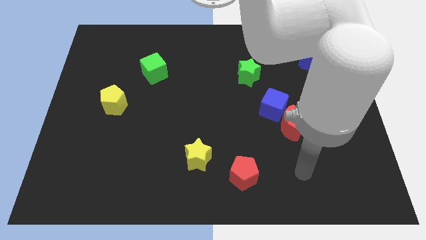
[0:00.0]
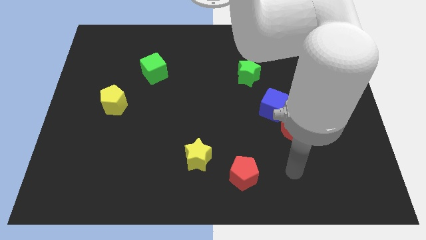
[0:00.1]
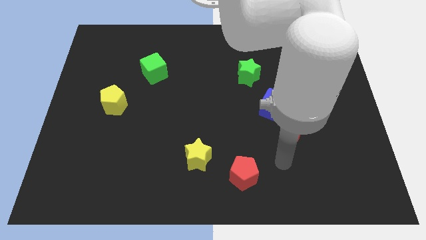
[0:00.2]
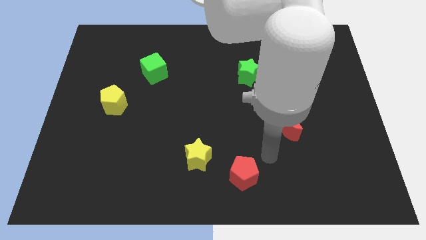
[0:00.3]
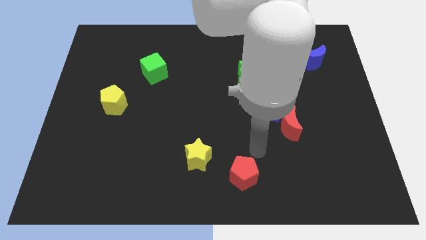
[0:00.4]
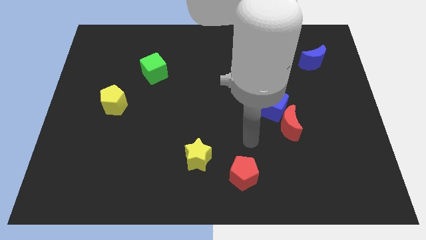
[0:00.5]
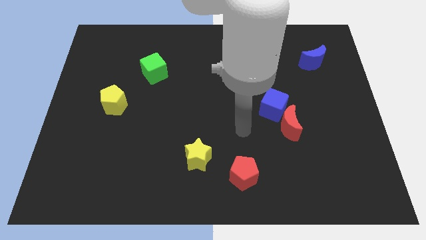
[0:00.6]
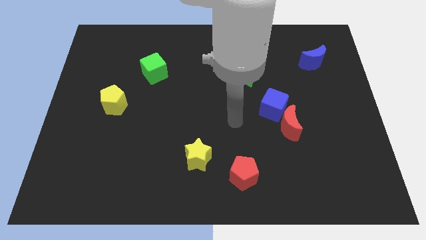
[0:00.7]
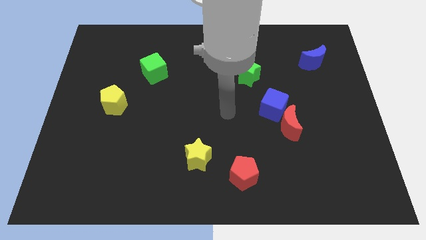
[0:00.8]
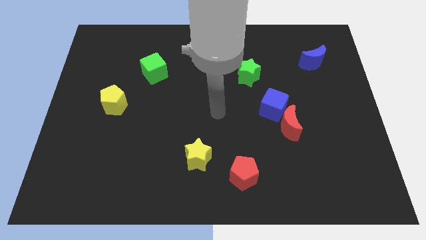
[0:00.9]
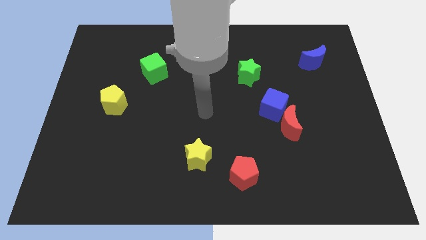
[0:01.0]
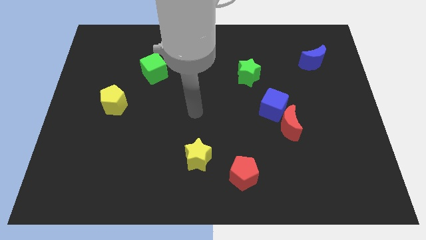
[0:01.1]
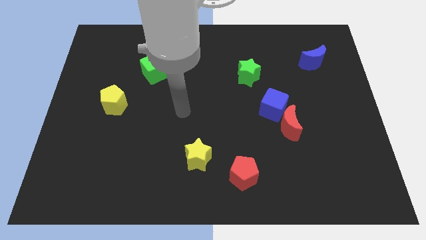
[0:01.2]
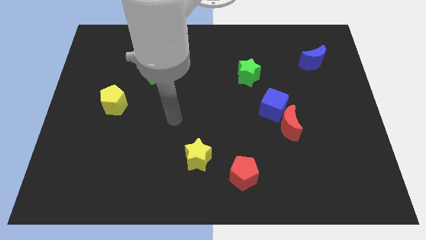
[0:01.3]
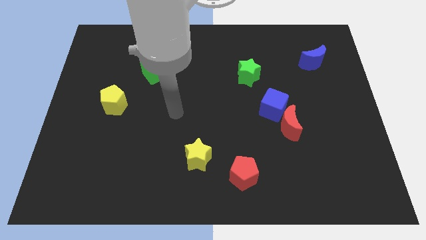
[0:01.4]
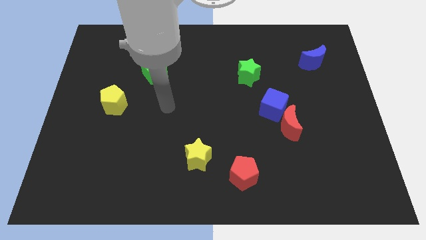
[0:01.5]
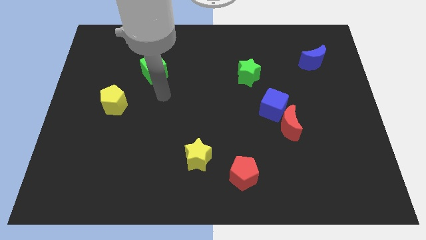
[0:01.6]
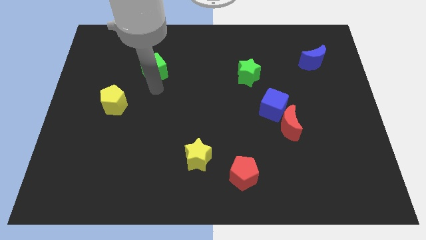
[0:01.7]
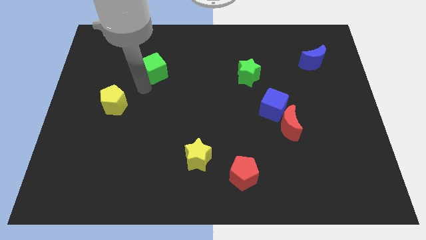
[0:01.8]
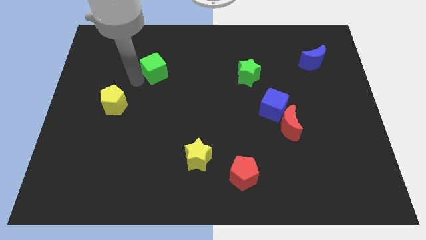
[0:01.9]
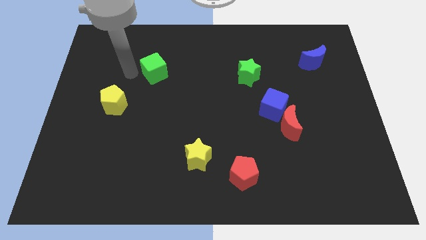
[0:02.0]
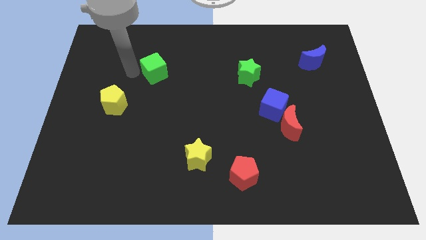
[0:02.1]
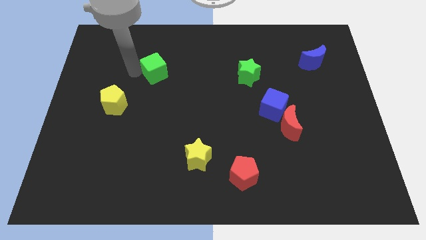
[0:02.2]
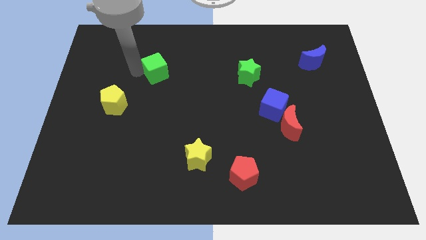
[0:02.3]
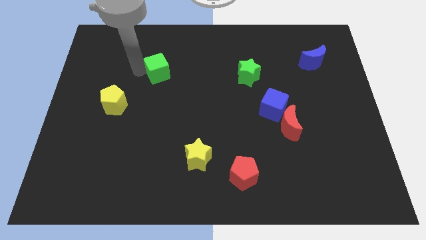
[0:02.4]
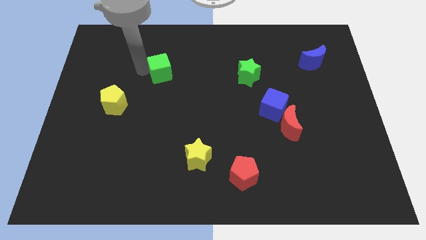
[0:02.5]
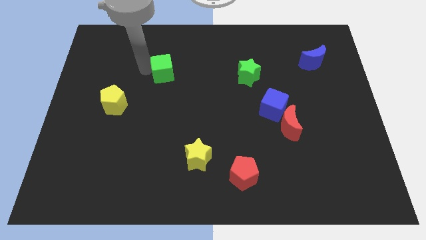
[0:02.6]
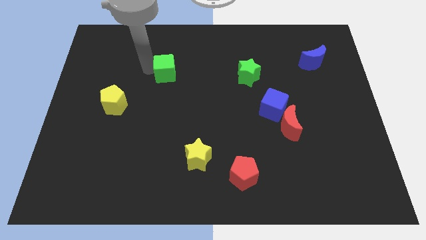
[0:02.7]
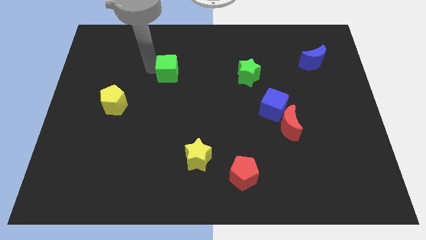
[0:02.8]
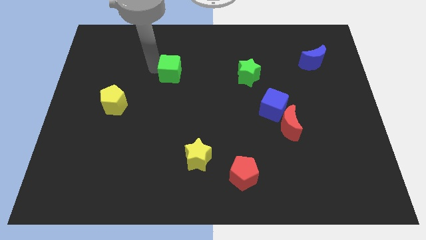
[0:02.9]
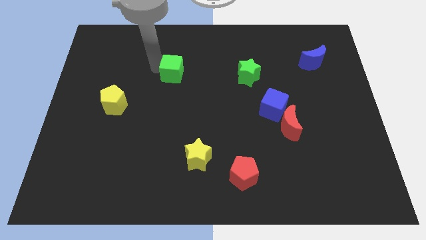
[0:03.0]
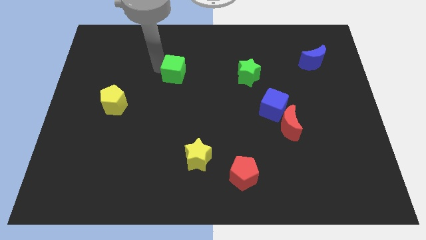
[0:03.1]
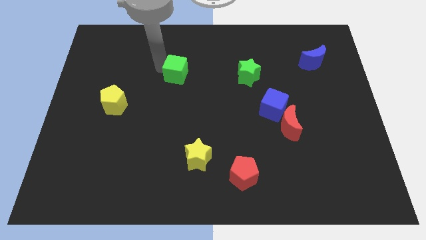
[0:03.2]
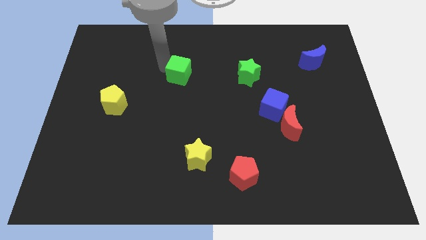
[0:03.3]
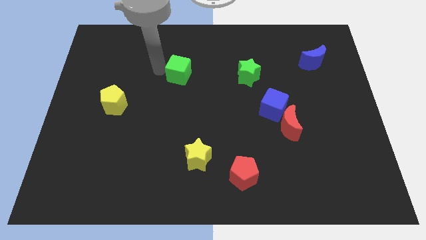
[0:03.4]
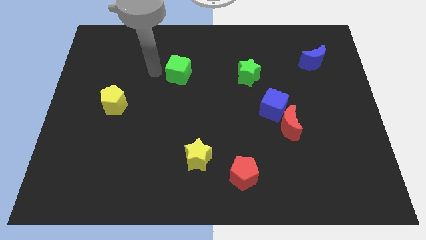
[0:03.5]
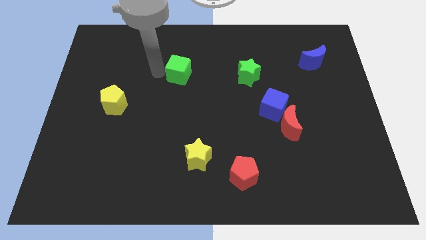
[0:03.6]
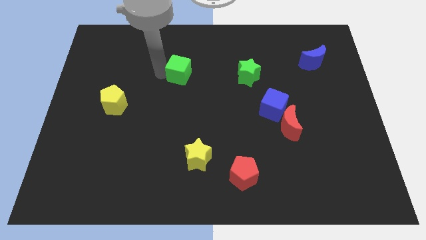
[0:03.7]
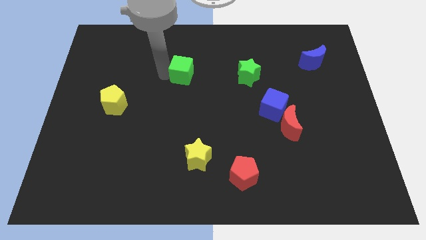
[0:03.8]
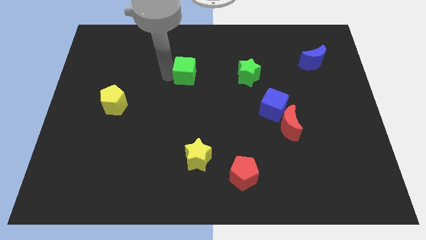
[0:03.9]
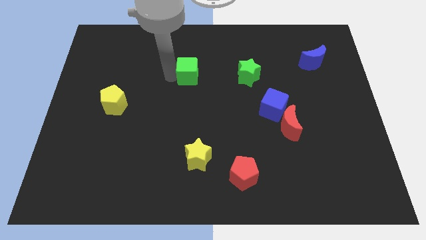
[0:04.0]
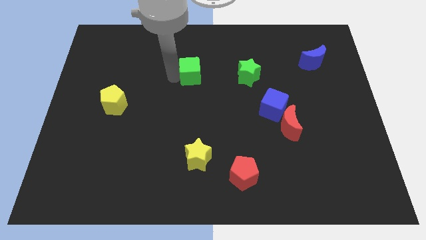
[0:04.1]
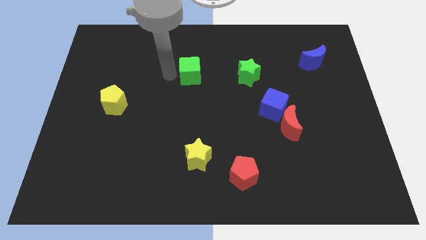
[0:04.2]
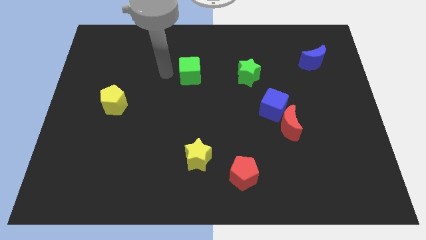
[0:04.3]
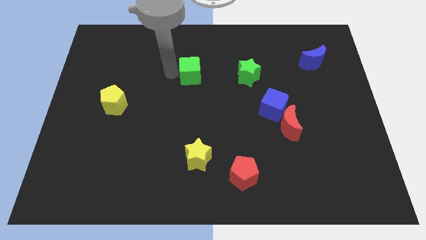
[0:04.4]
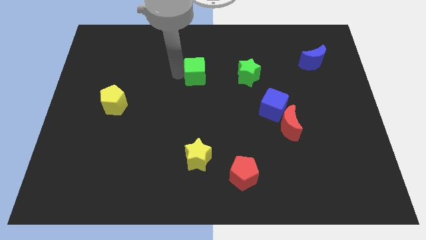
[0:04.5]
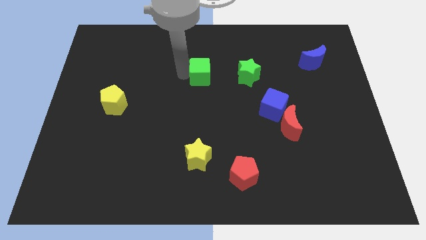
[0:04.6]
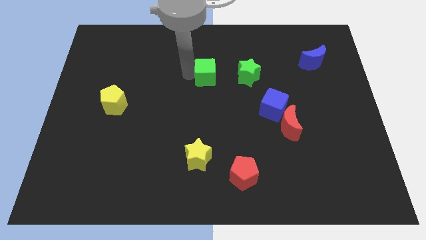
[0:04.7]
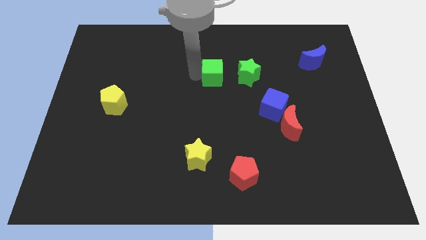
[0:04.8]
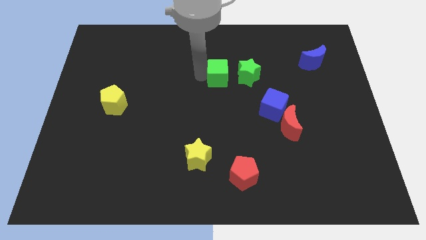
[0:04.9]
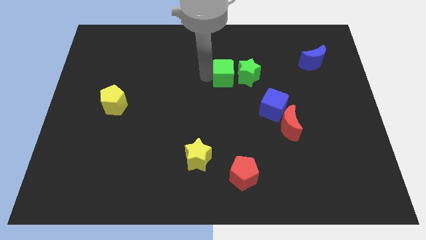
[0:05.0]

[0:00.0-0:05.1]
put the green cube next to the green star

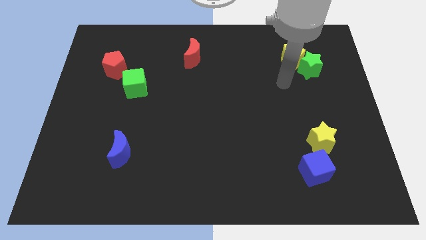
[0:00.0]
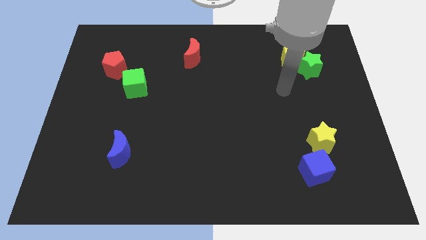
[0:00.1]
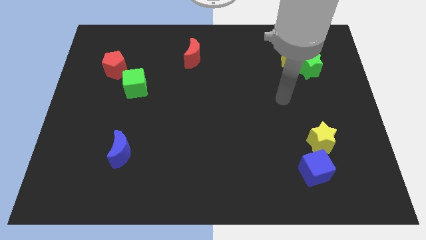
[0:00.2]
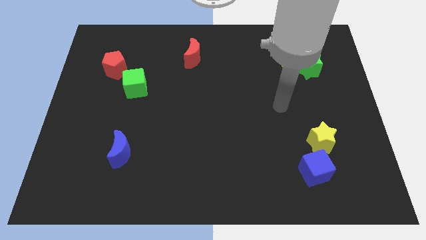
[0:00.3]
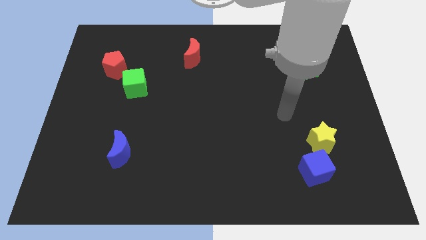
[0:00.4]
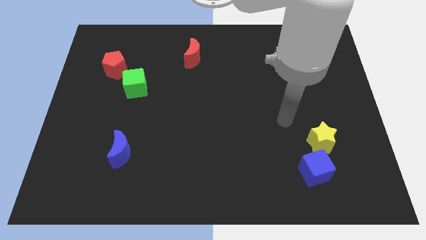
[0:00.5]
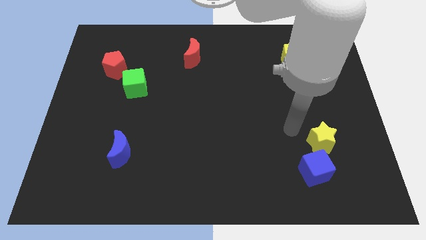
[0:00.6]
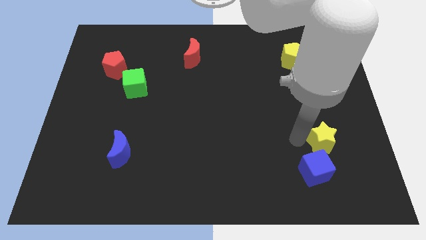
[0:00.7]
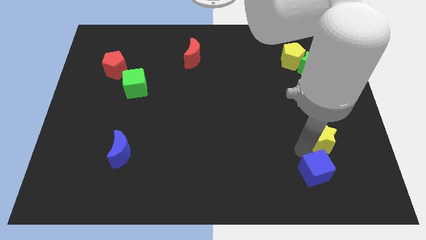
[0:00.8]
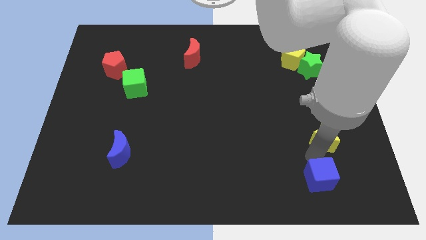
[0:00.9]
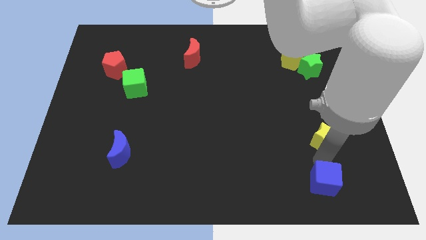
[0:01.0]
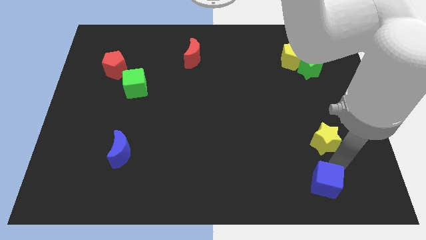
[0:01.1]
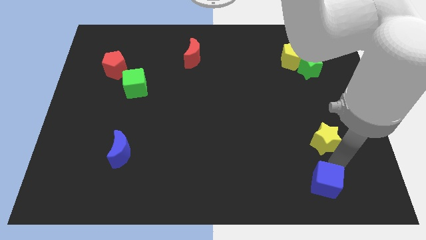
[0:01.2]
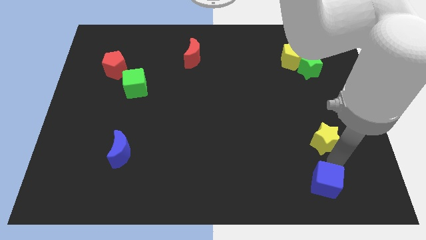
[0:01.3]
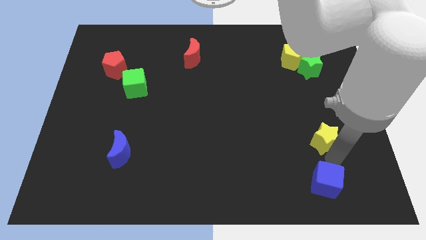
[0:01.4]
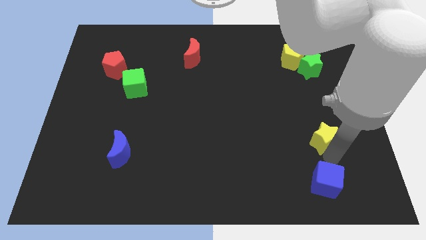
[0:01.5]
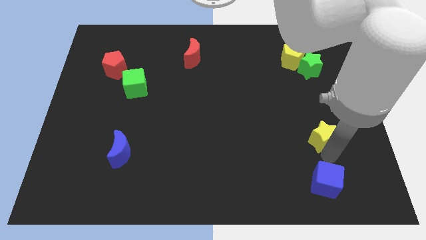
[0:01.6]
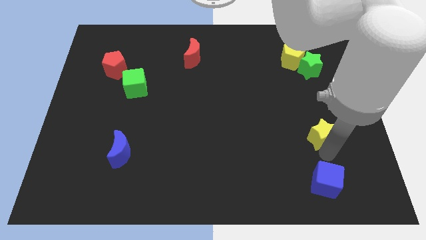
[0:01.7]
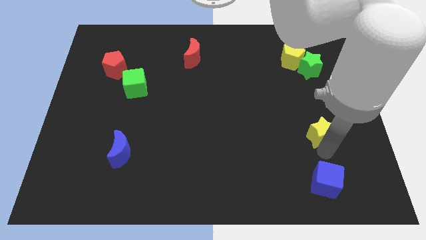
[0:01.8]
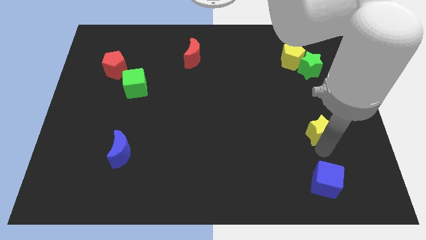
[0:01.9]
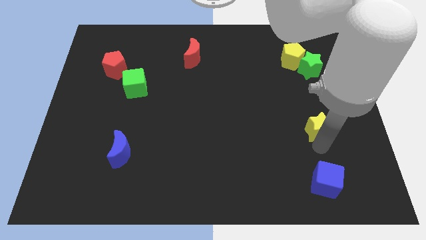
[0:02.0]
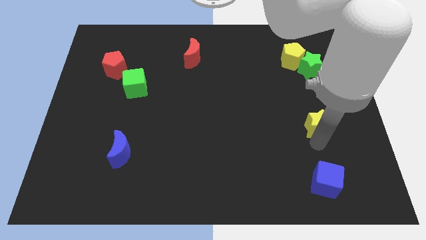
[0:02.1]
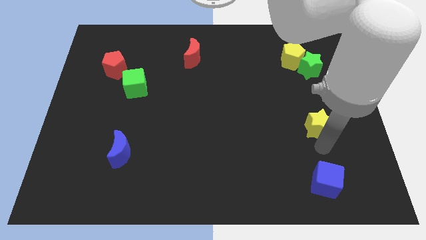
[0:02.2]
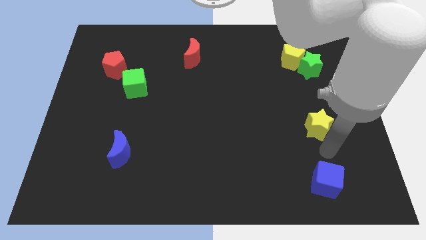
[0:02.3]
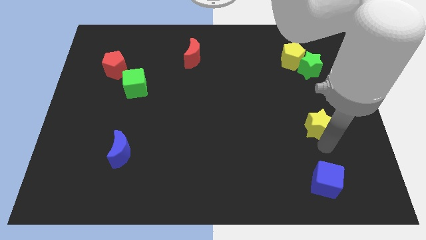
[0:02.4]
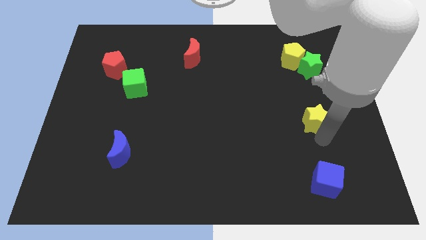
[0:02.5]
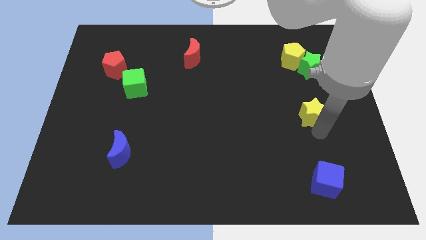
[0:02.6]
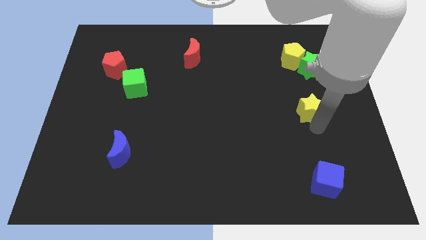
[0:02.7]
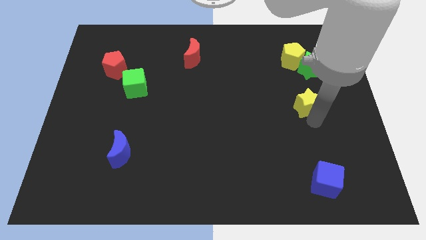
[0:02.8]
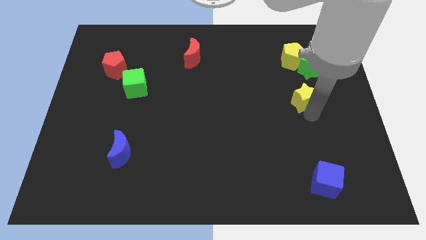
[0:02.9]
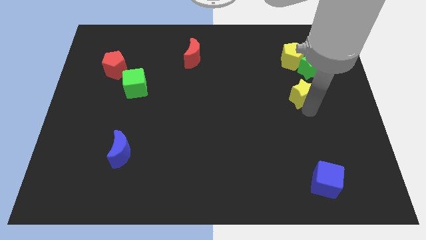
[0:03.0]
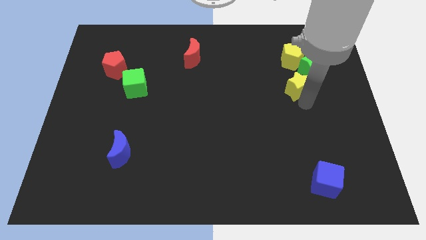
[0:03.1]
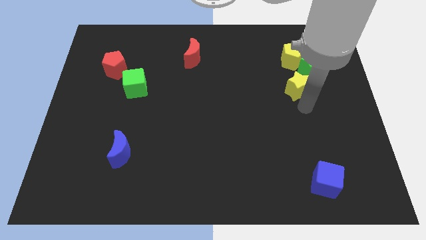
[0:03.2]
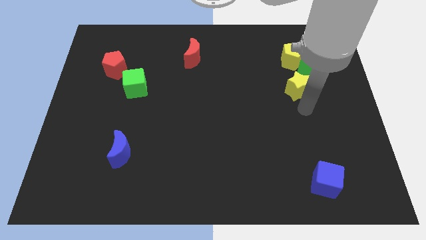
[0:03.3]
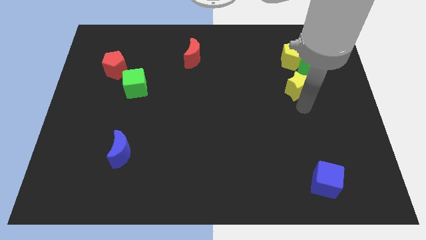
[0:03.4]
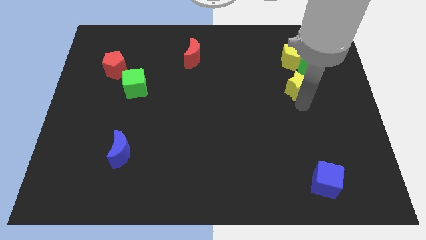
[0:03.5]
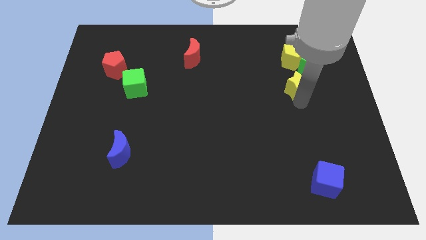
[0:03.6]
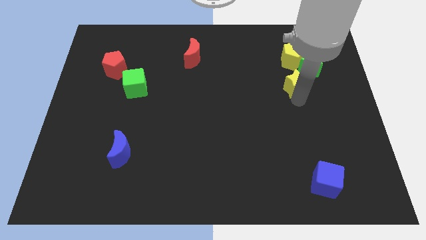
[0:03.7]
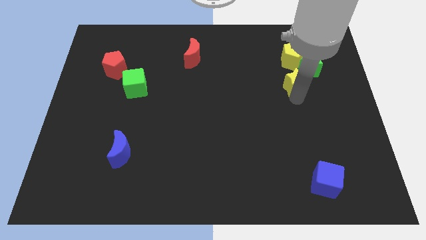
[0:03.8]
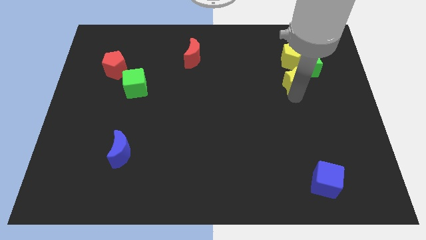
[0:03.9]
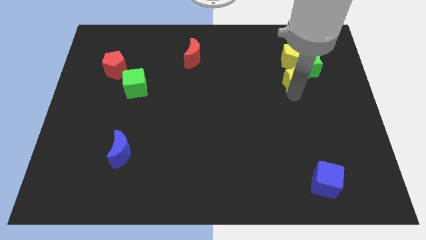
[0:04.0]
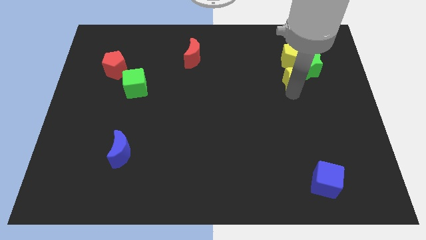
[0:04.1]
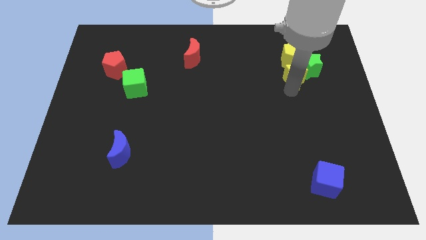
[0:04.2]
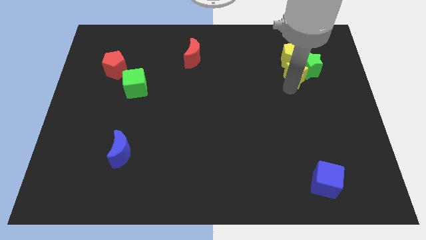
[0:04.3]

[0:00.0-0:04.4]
slide the yellow star towards the yellow pentagon
